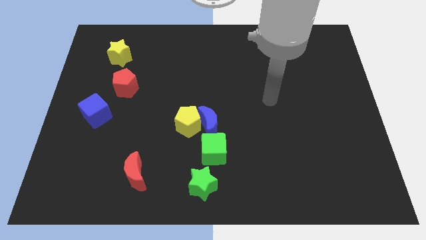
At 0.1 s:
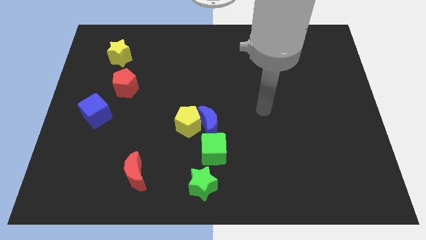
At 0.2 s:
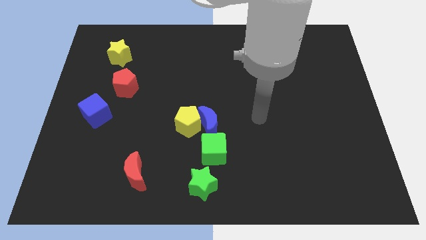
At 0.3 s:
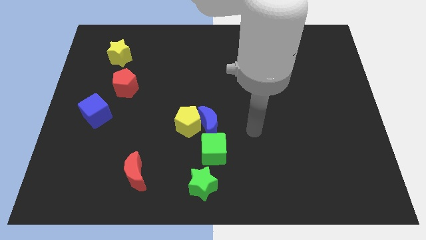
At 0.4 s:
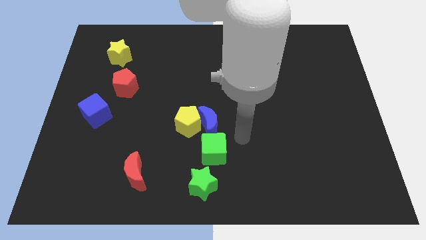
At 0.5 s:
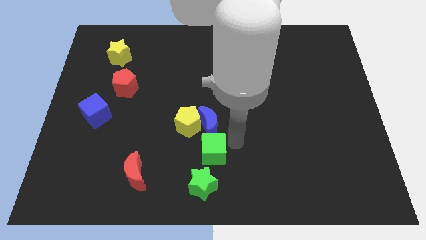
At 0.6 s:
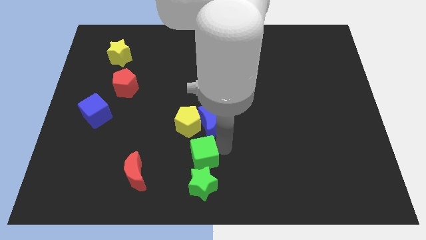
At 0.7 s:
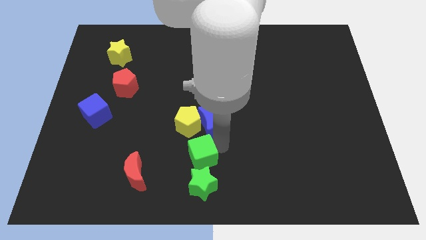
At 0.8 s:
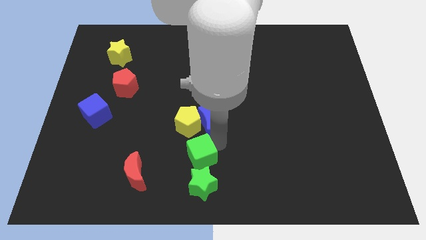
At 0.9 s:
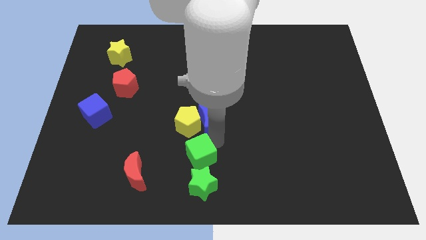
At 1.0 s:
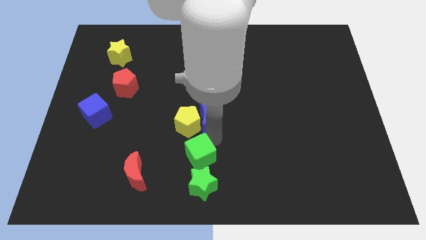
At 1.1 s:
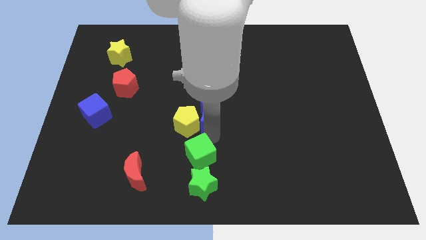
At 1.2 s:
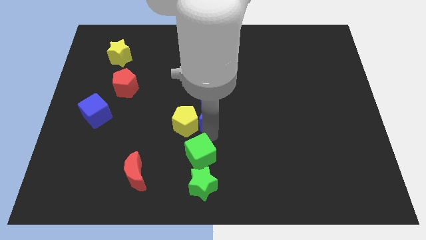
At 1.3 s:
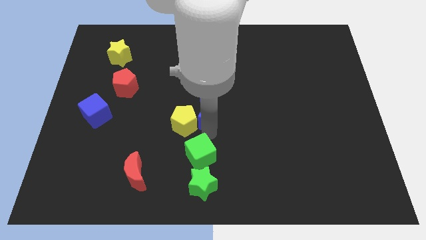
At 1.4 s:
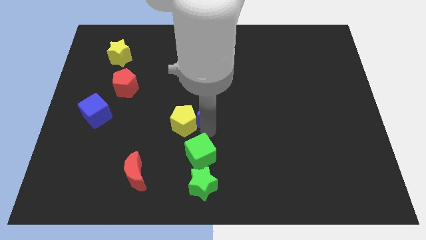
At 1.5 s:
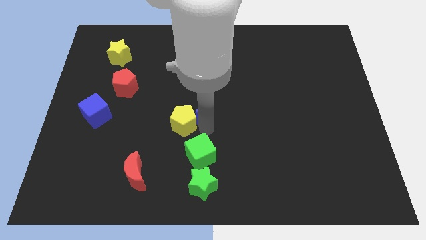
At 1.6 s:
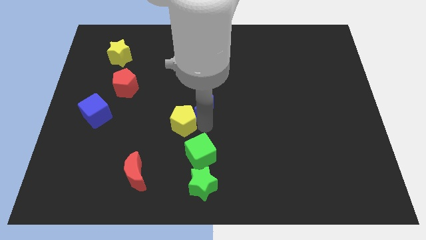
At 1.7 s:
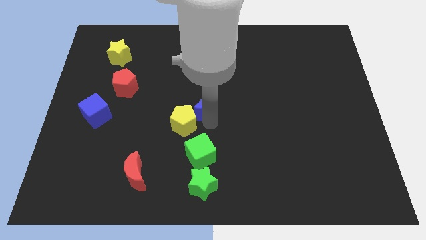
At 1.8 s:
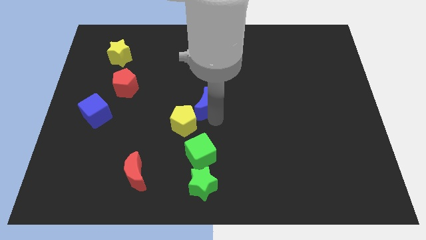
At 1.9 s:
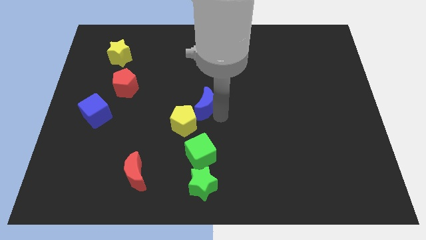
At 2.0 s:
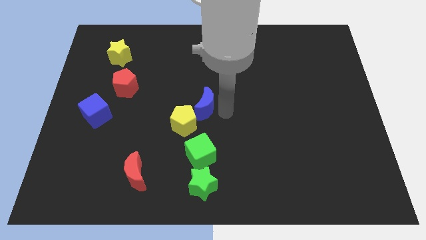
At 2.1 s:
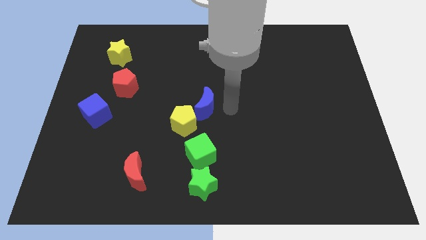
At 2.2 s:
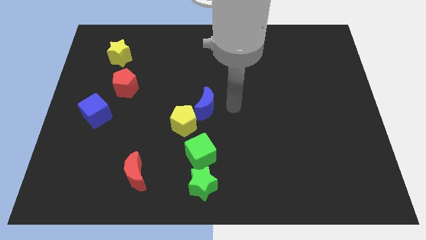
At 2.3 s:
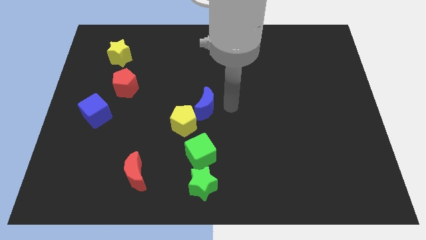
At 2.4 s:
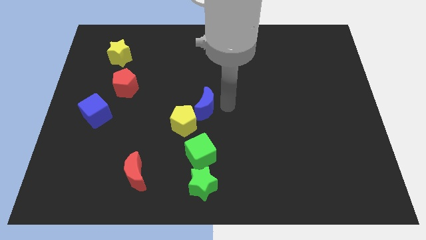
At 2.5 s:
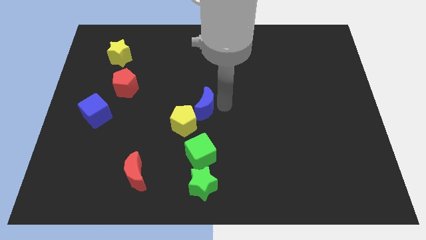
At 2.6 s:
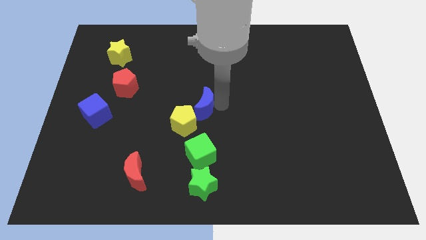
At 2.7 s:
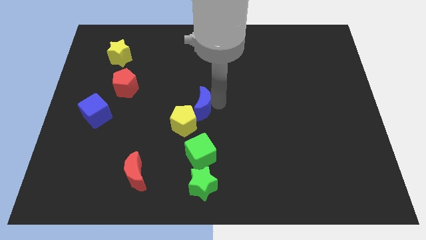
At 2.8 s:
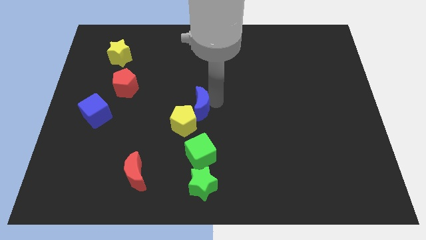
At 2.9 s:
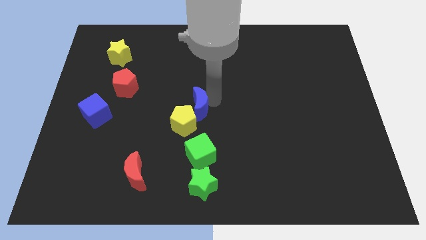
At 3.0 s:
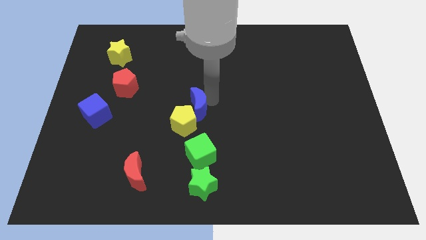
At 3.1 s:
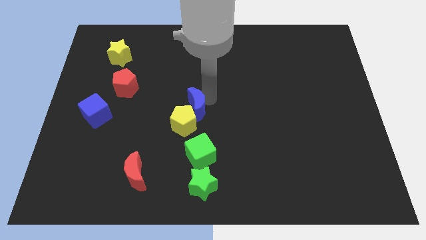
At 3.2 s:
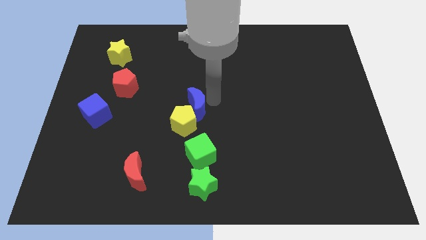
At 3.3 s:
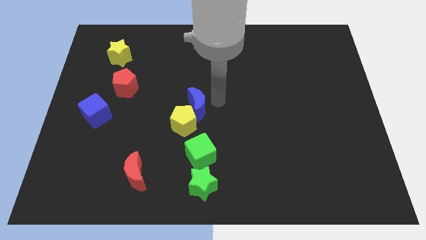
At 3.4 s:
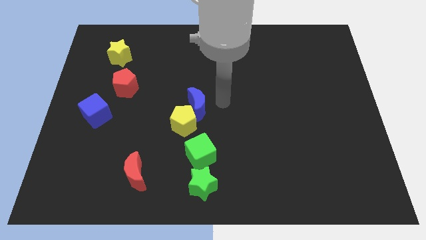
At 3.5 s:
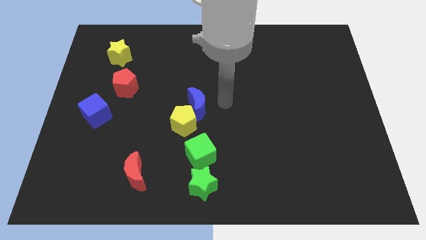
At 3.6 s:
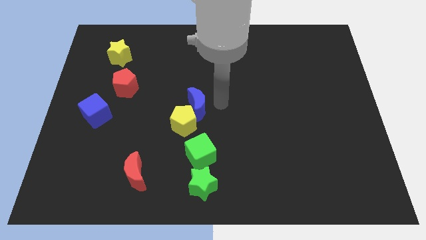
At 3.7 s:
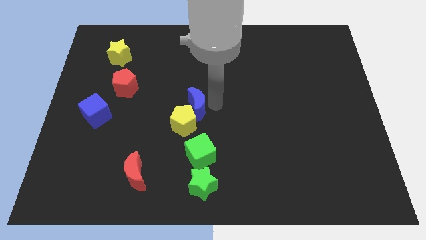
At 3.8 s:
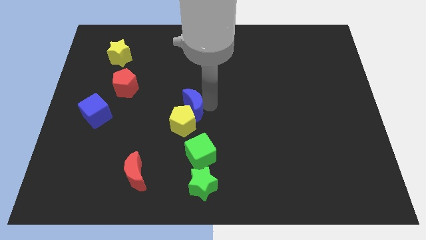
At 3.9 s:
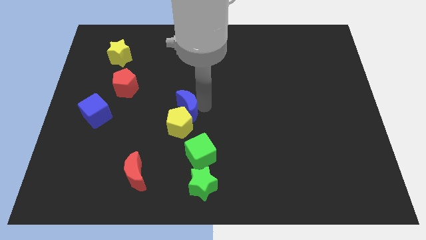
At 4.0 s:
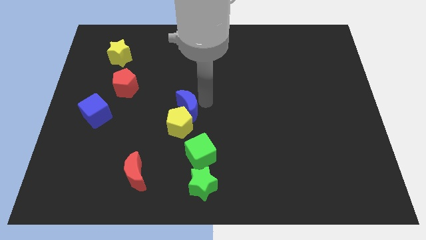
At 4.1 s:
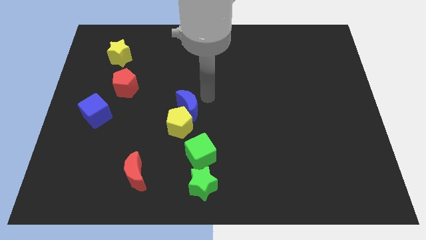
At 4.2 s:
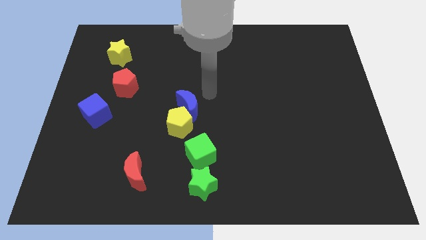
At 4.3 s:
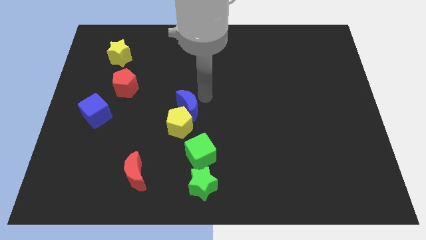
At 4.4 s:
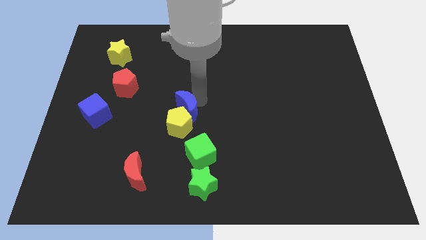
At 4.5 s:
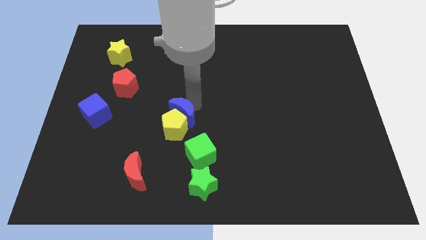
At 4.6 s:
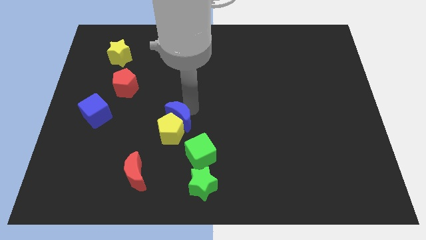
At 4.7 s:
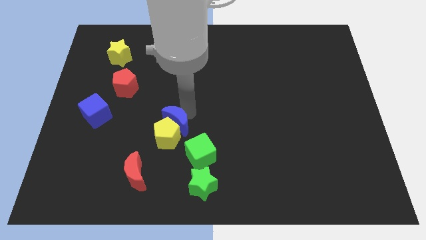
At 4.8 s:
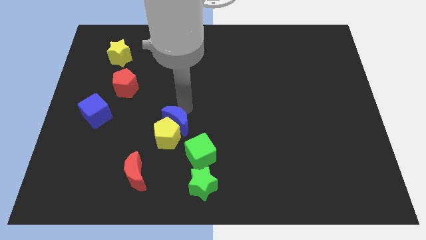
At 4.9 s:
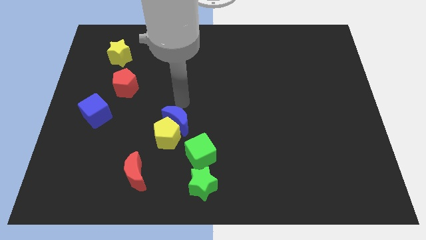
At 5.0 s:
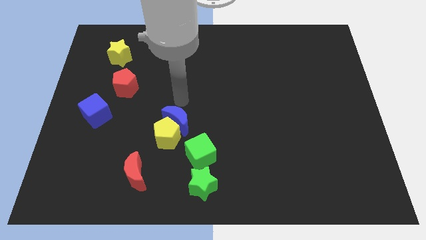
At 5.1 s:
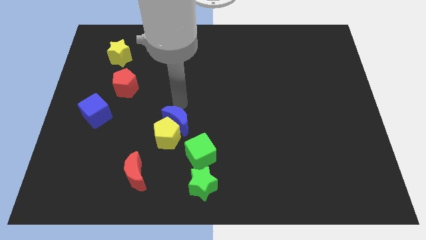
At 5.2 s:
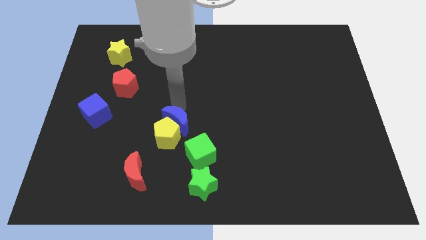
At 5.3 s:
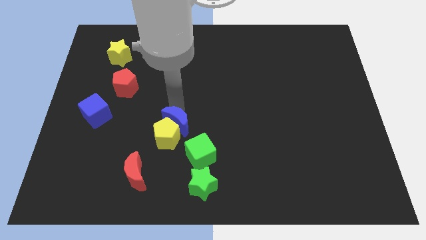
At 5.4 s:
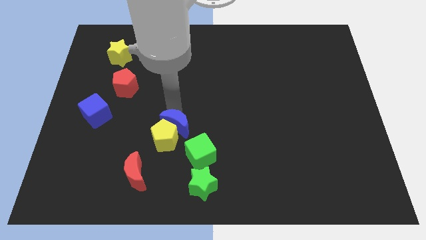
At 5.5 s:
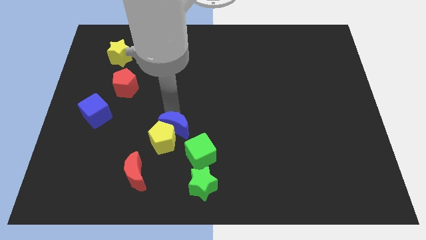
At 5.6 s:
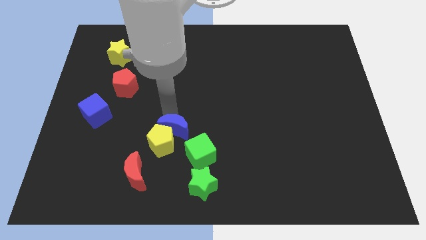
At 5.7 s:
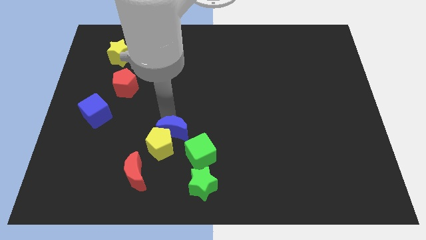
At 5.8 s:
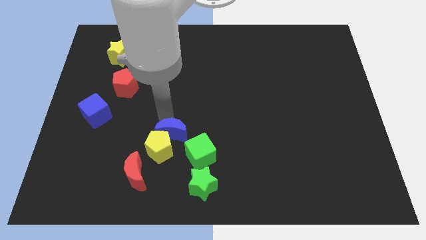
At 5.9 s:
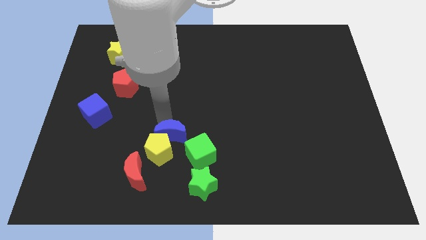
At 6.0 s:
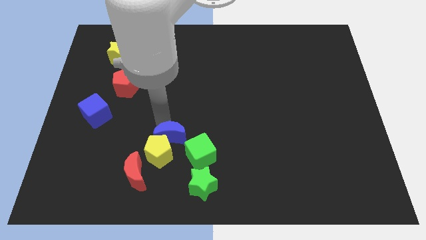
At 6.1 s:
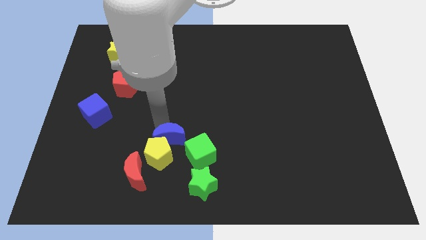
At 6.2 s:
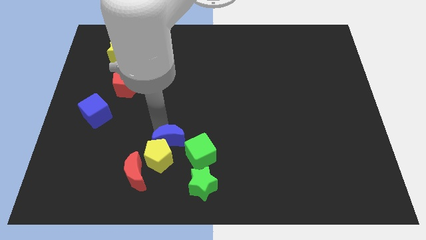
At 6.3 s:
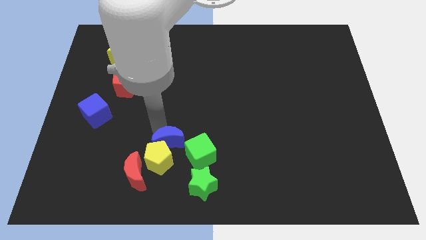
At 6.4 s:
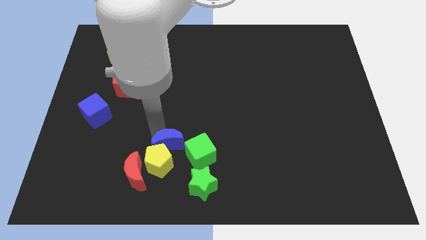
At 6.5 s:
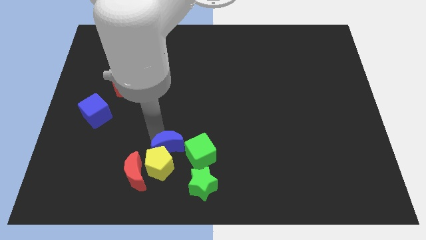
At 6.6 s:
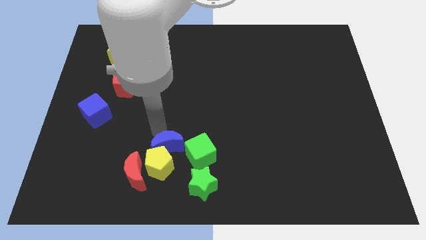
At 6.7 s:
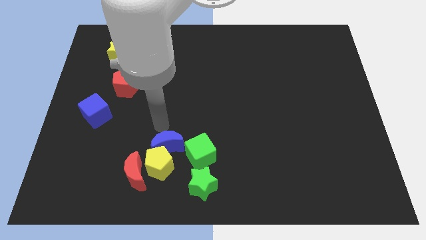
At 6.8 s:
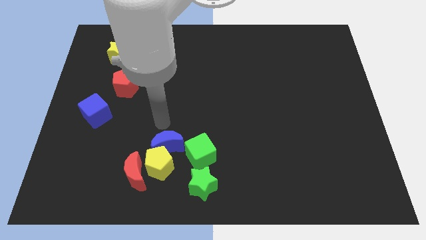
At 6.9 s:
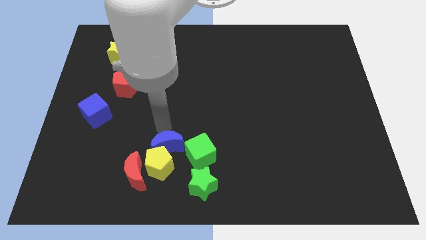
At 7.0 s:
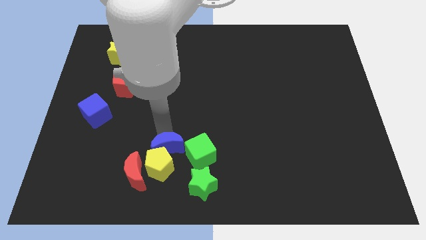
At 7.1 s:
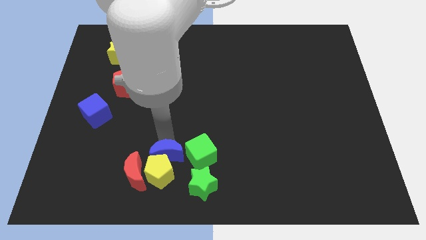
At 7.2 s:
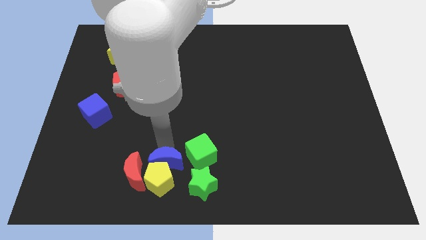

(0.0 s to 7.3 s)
put the blue moon to the bottom left of the green cube
